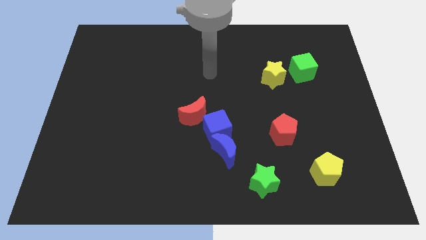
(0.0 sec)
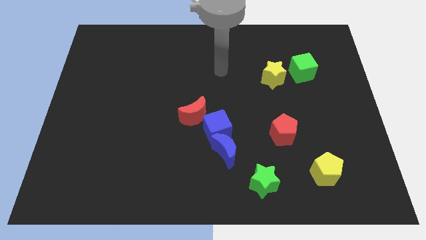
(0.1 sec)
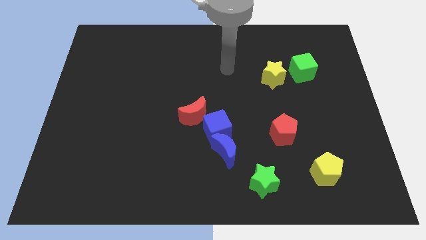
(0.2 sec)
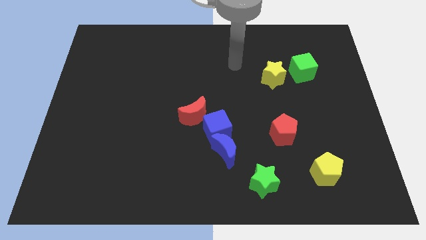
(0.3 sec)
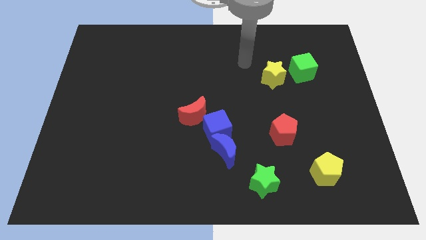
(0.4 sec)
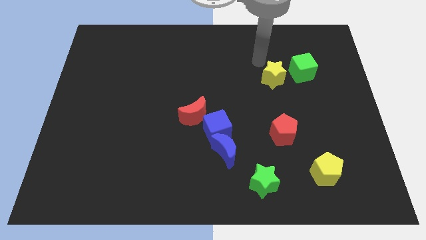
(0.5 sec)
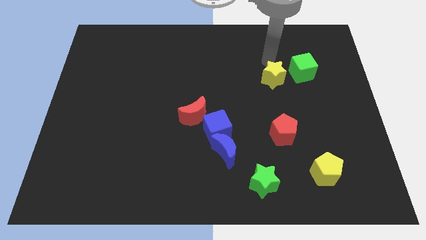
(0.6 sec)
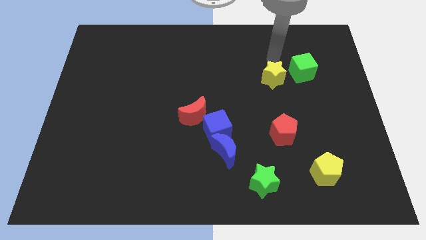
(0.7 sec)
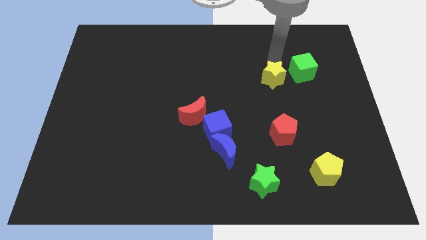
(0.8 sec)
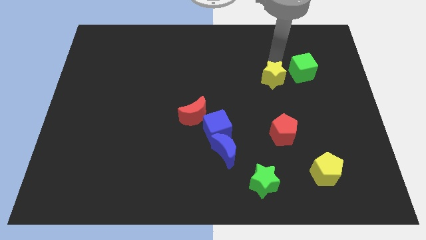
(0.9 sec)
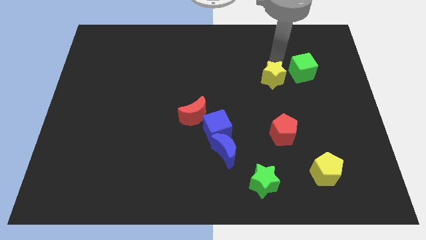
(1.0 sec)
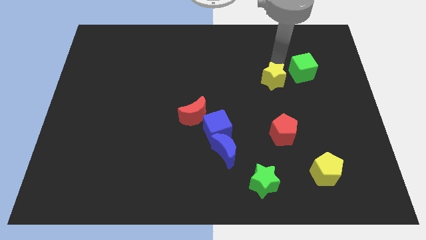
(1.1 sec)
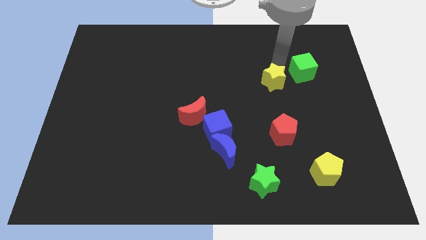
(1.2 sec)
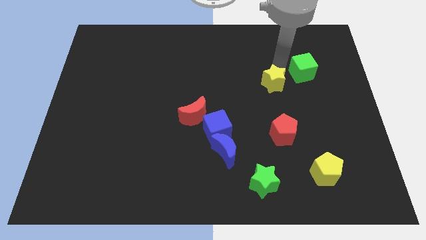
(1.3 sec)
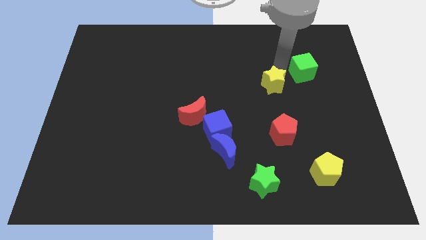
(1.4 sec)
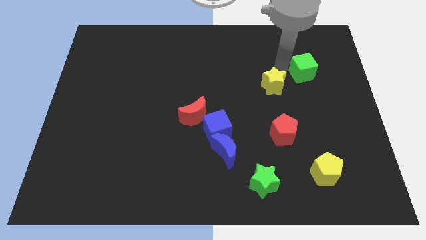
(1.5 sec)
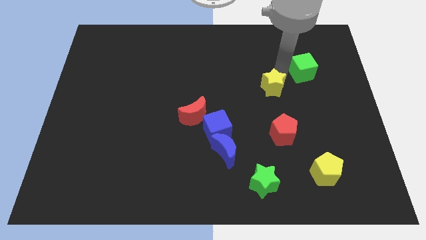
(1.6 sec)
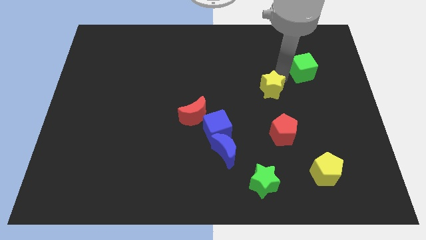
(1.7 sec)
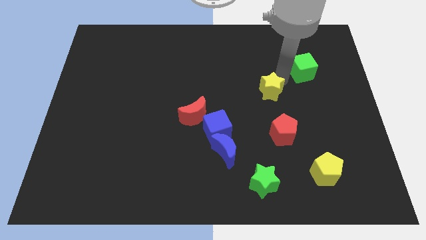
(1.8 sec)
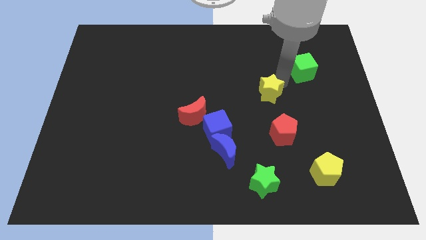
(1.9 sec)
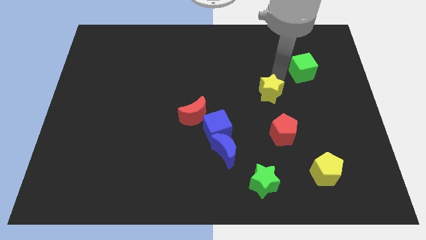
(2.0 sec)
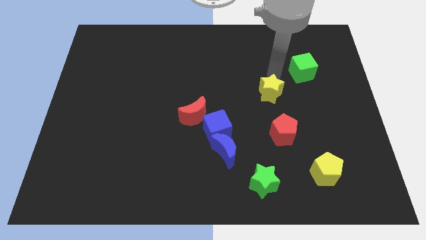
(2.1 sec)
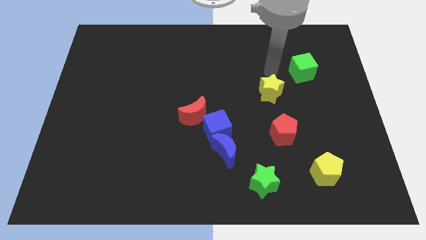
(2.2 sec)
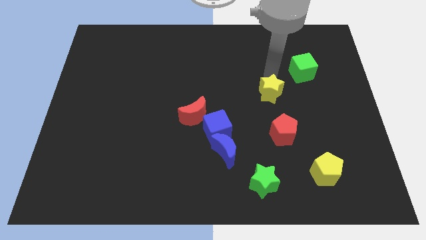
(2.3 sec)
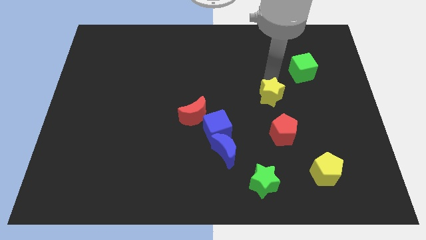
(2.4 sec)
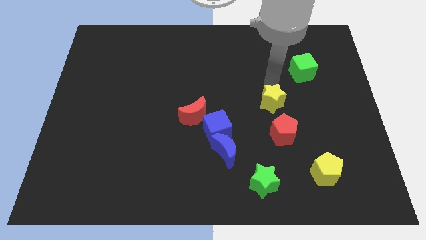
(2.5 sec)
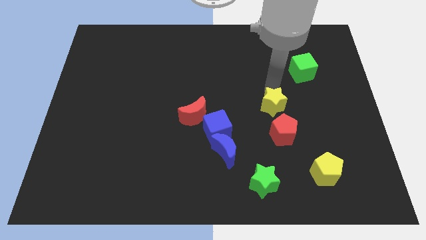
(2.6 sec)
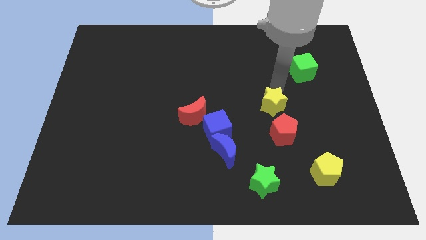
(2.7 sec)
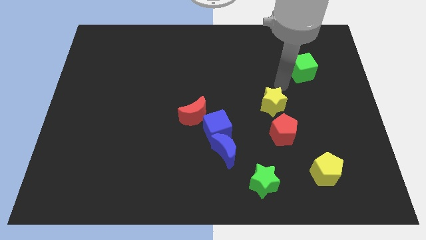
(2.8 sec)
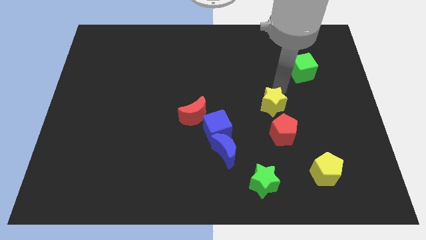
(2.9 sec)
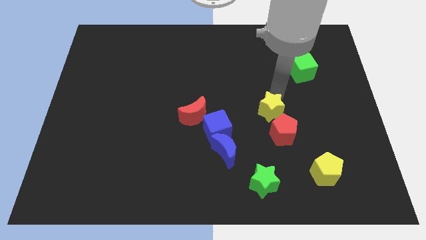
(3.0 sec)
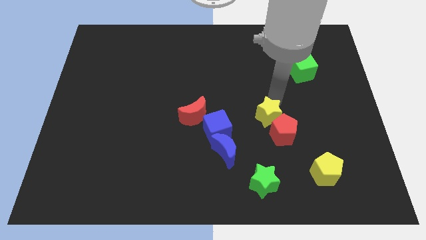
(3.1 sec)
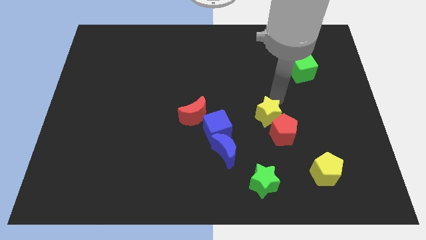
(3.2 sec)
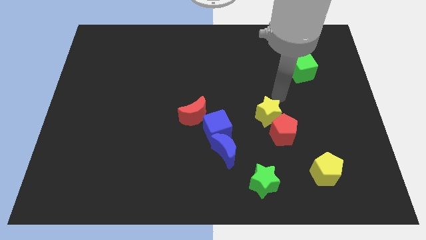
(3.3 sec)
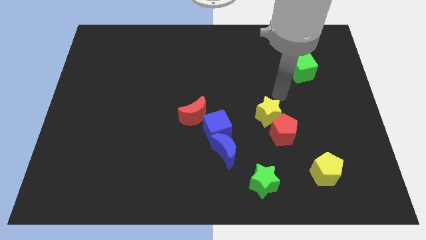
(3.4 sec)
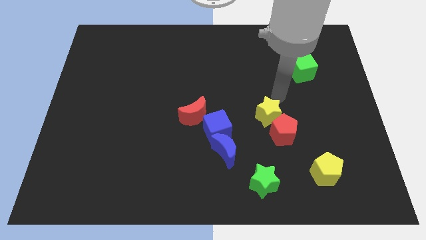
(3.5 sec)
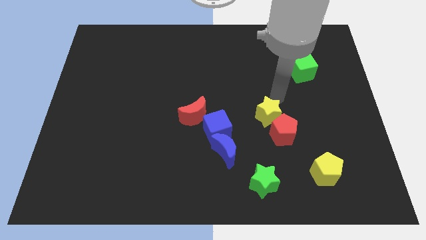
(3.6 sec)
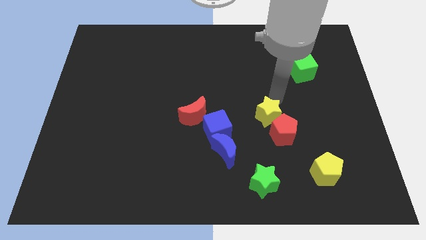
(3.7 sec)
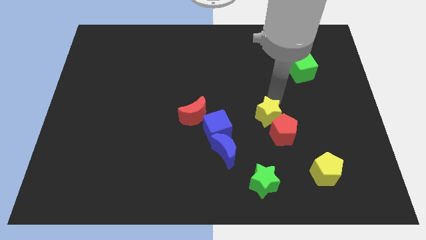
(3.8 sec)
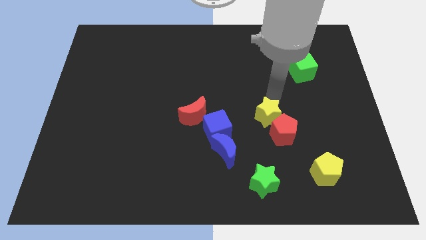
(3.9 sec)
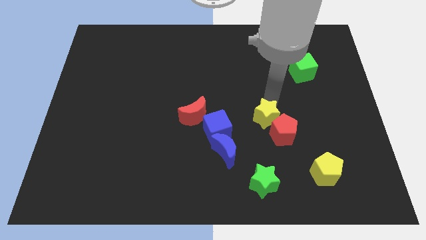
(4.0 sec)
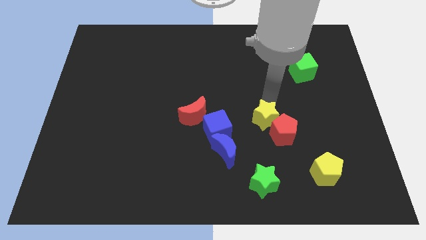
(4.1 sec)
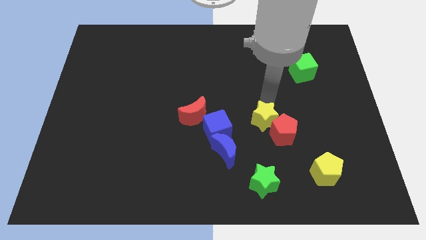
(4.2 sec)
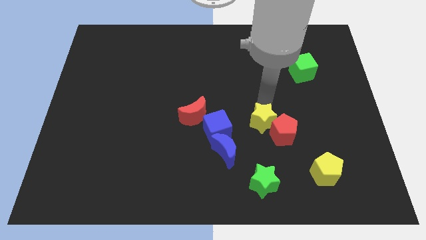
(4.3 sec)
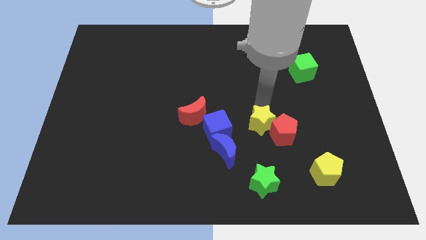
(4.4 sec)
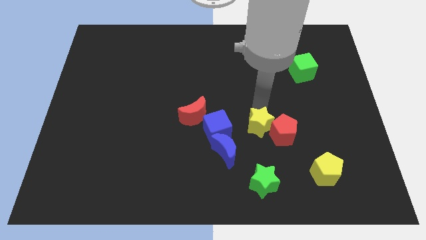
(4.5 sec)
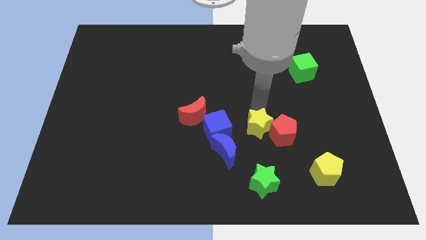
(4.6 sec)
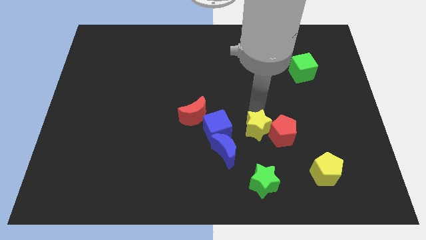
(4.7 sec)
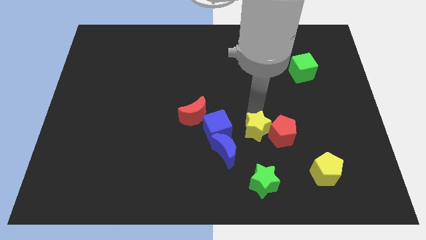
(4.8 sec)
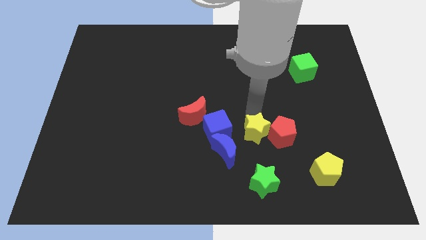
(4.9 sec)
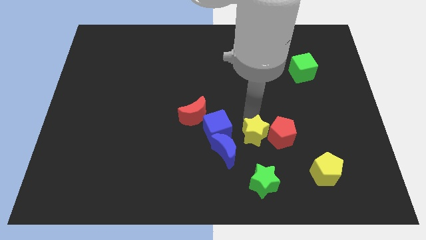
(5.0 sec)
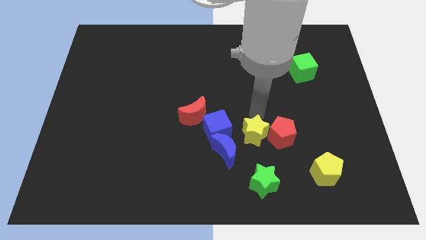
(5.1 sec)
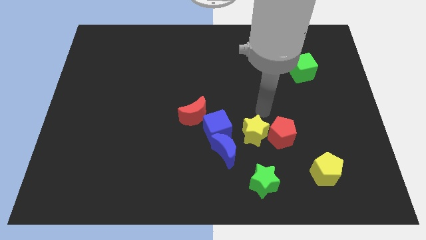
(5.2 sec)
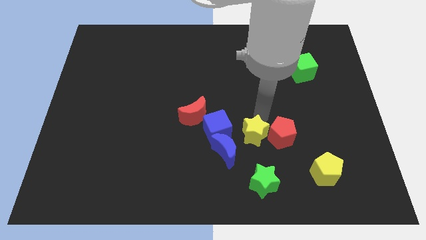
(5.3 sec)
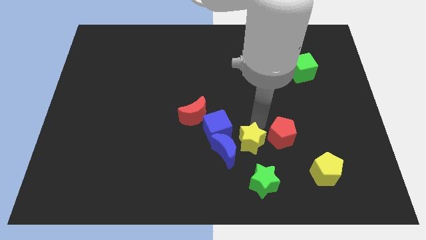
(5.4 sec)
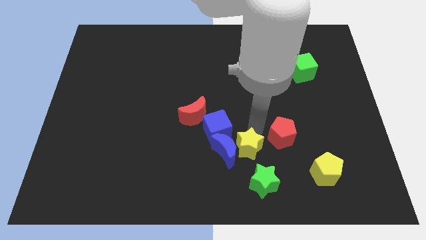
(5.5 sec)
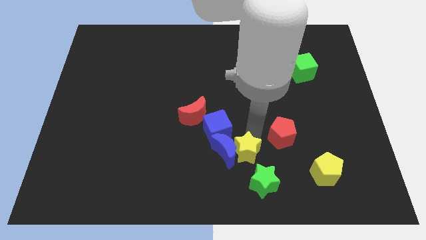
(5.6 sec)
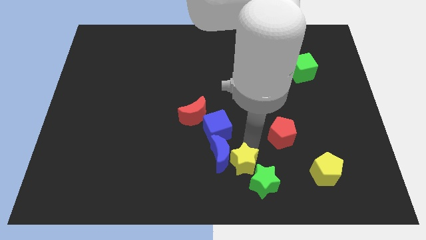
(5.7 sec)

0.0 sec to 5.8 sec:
put the yellow star left of the green star

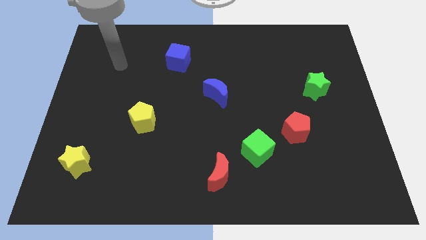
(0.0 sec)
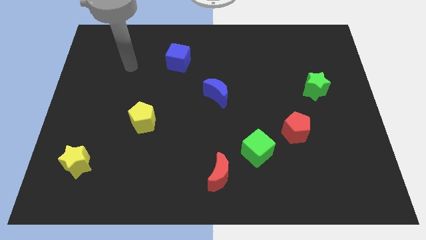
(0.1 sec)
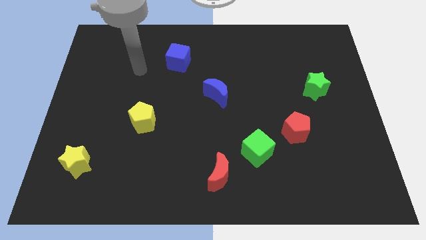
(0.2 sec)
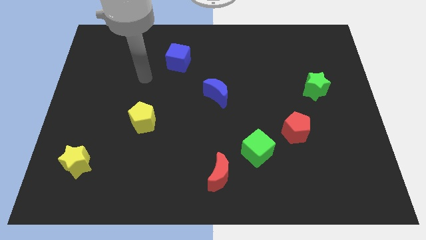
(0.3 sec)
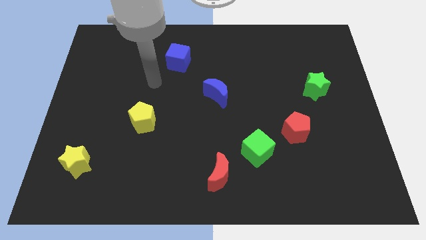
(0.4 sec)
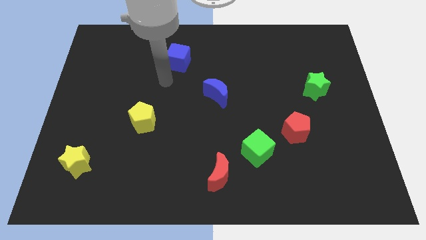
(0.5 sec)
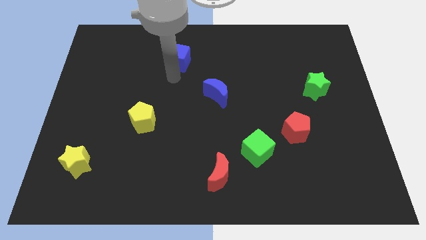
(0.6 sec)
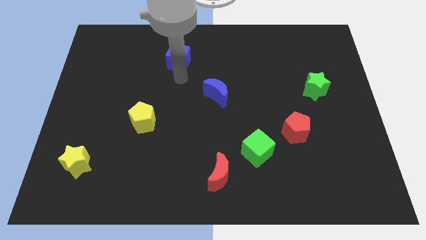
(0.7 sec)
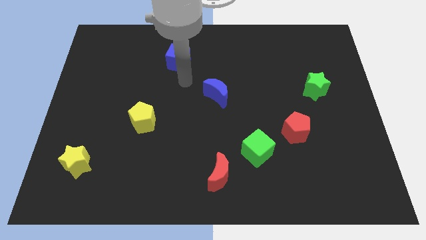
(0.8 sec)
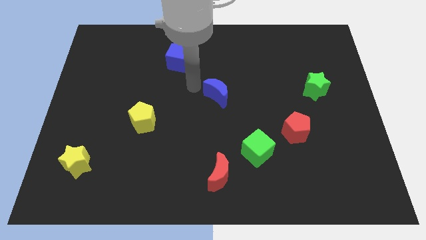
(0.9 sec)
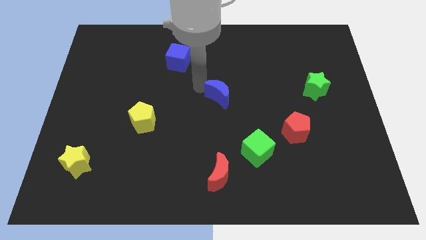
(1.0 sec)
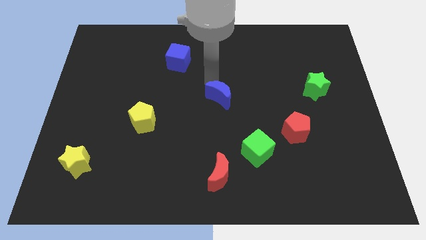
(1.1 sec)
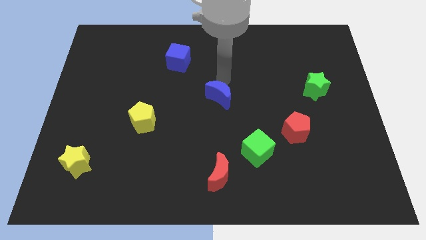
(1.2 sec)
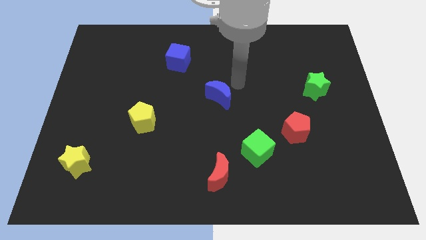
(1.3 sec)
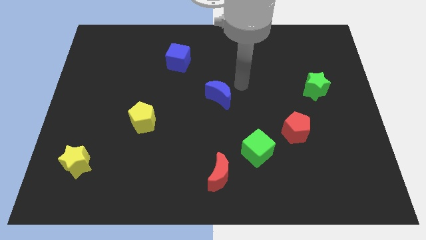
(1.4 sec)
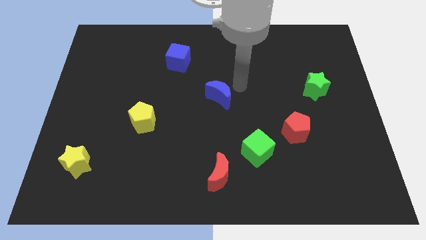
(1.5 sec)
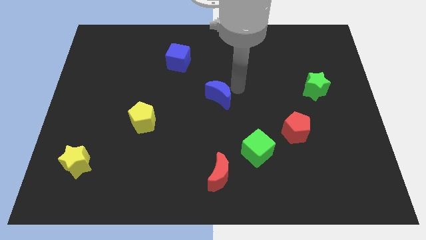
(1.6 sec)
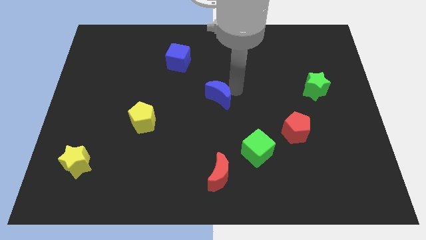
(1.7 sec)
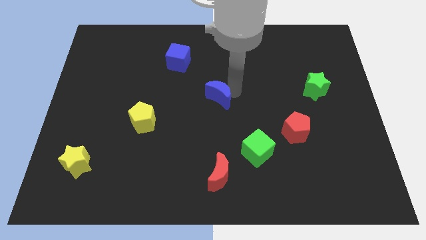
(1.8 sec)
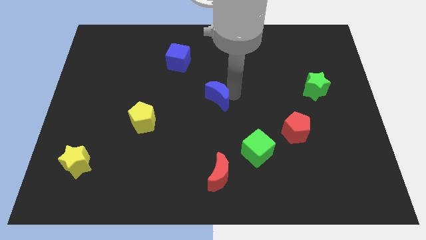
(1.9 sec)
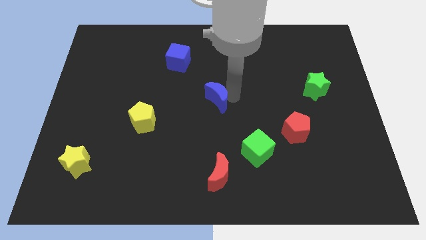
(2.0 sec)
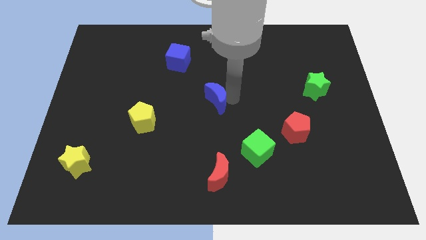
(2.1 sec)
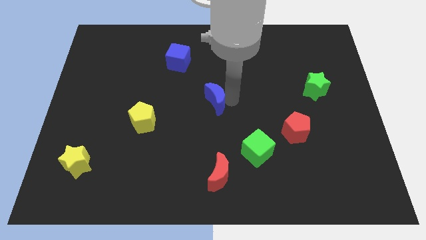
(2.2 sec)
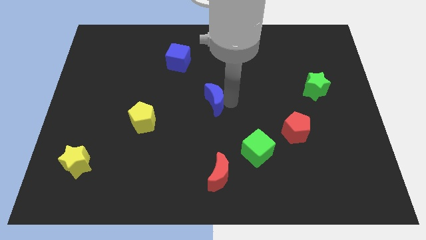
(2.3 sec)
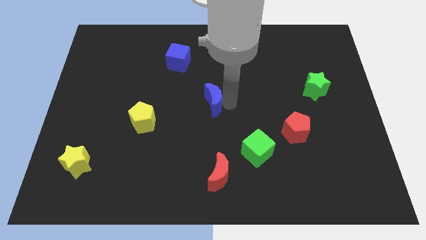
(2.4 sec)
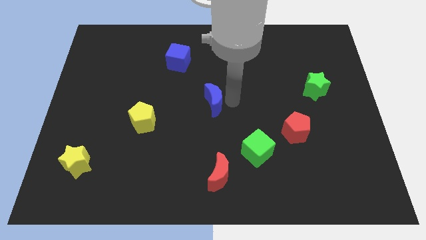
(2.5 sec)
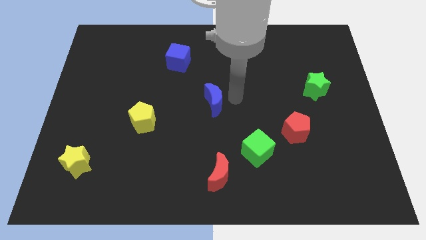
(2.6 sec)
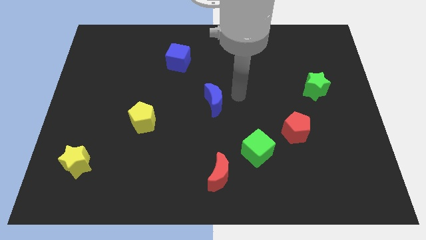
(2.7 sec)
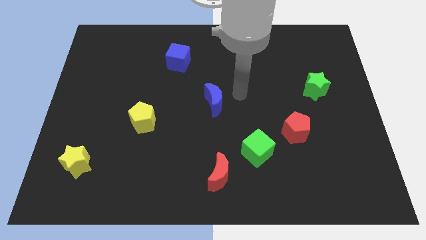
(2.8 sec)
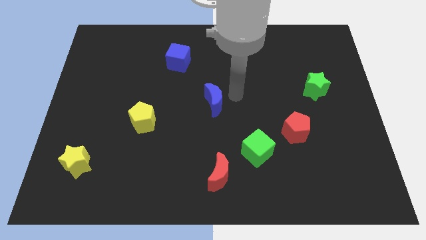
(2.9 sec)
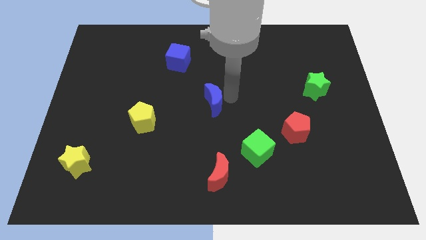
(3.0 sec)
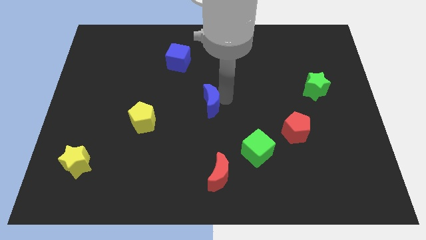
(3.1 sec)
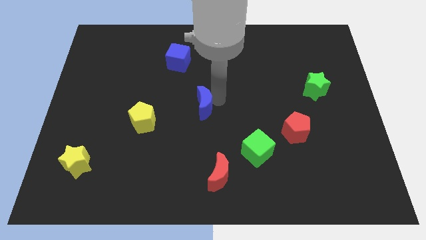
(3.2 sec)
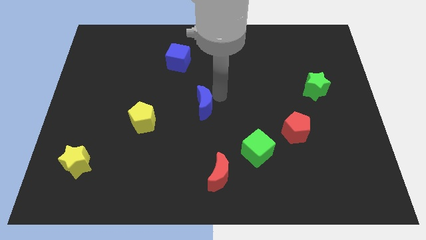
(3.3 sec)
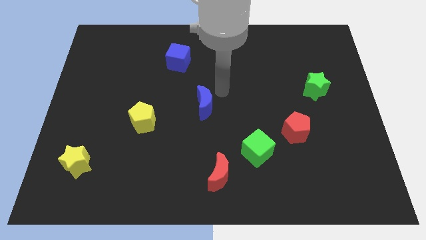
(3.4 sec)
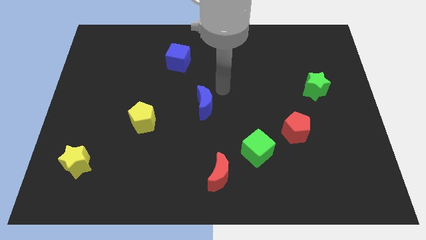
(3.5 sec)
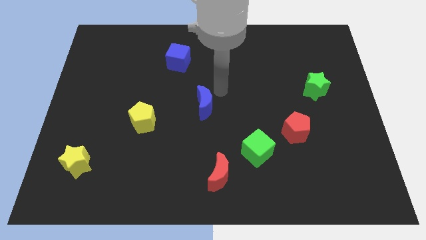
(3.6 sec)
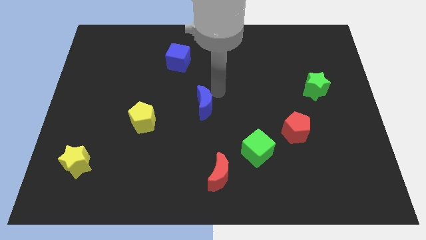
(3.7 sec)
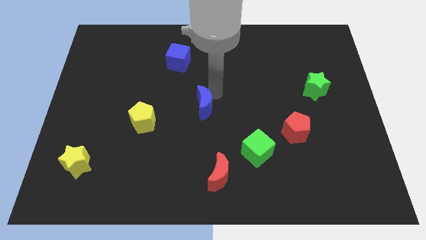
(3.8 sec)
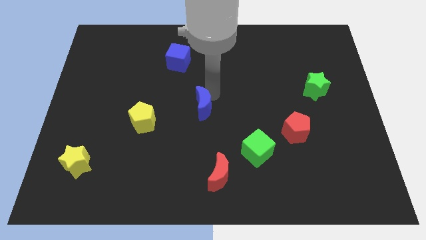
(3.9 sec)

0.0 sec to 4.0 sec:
push the blue moon just right of the yellow pentagon
